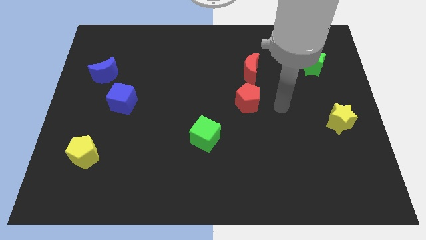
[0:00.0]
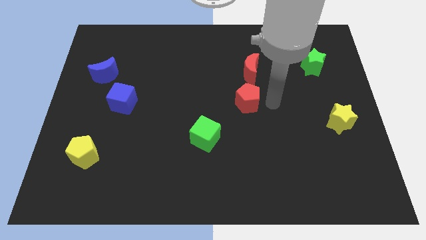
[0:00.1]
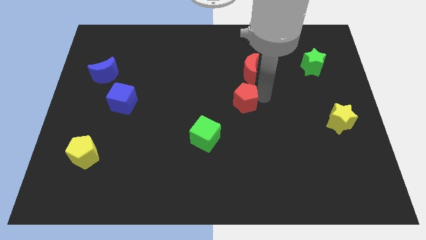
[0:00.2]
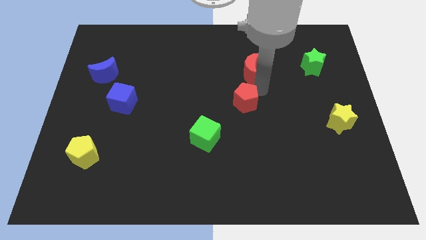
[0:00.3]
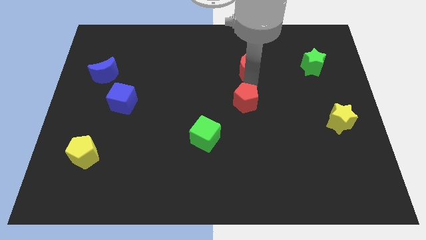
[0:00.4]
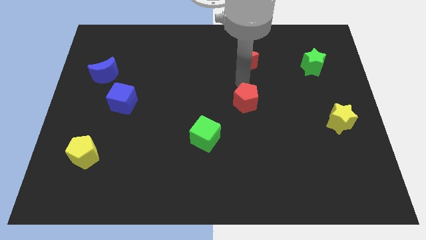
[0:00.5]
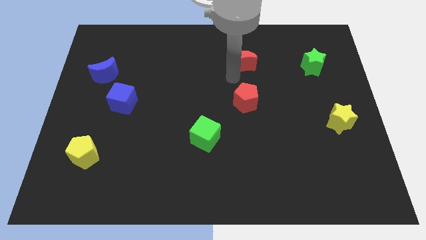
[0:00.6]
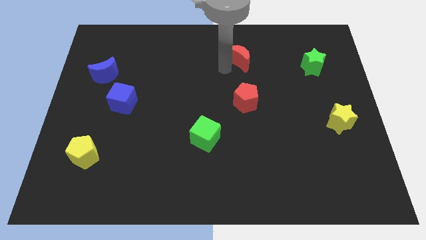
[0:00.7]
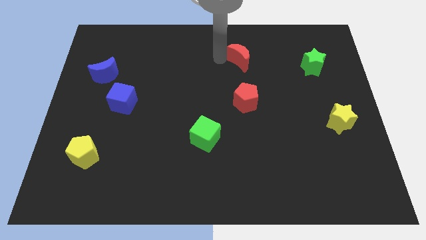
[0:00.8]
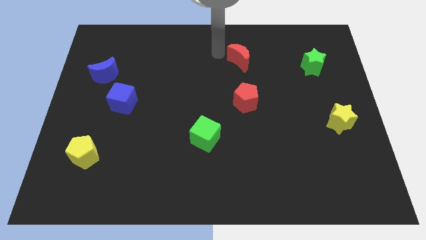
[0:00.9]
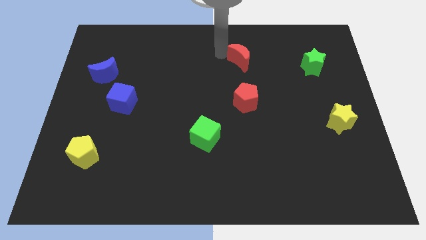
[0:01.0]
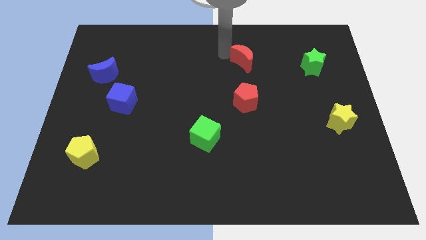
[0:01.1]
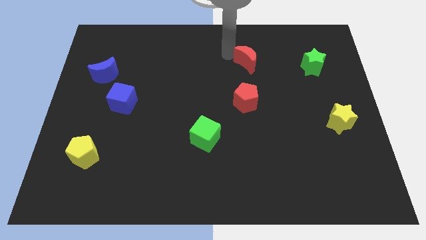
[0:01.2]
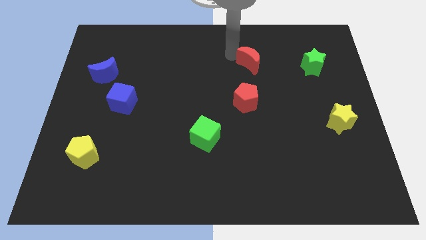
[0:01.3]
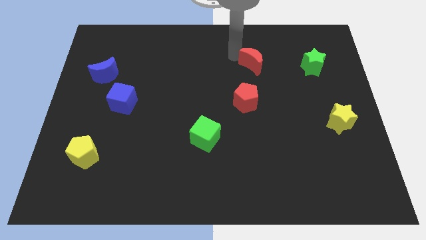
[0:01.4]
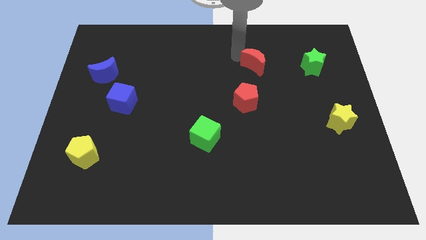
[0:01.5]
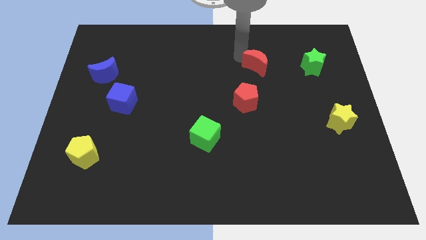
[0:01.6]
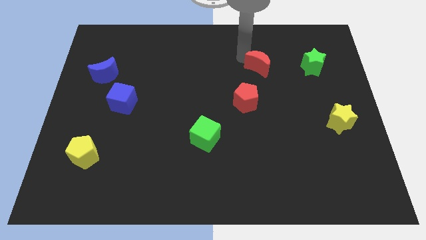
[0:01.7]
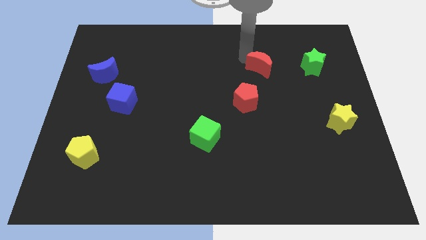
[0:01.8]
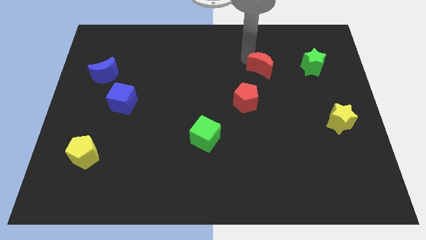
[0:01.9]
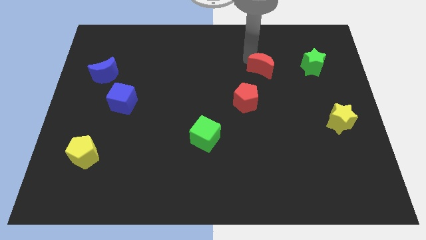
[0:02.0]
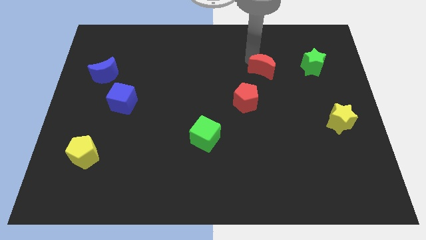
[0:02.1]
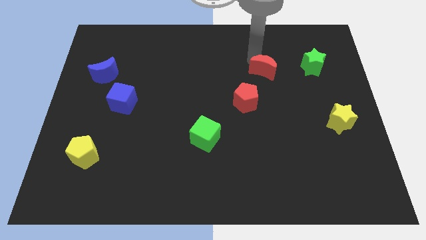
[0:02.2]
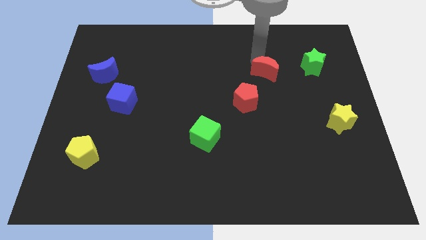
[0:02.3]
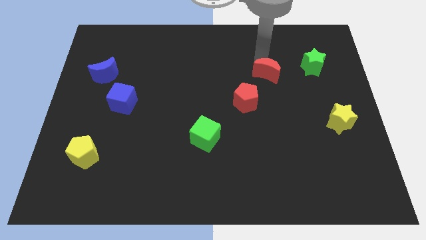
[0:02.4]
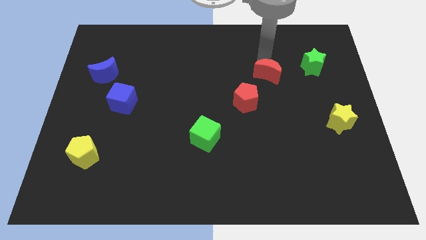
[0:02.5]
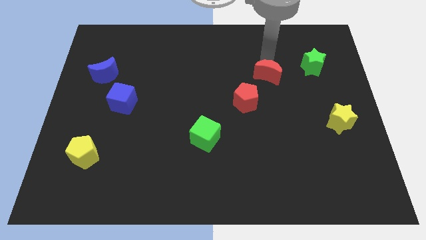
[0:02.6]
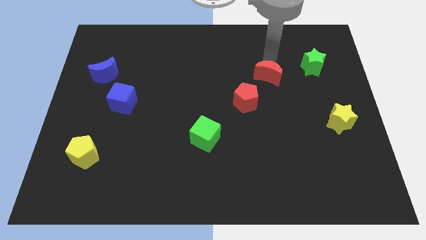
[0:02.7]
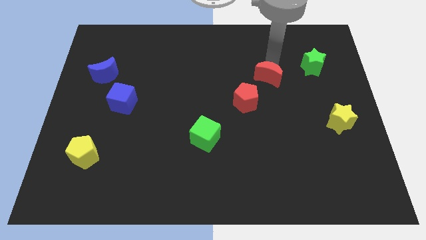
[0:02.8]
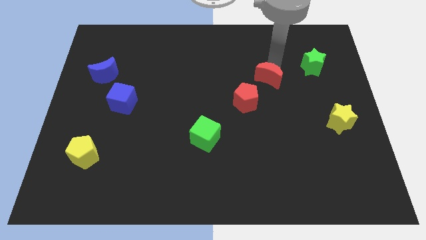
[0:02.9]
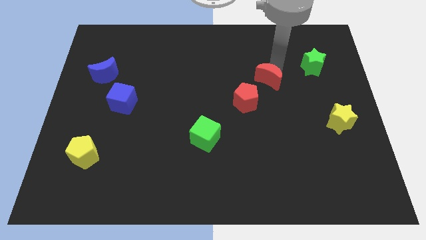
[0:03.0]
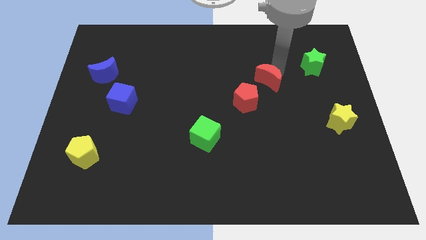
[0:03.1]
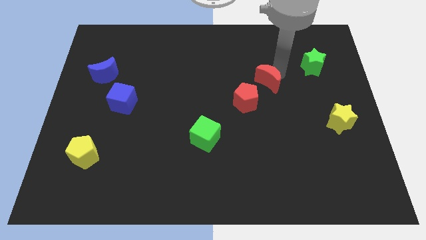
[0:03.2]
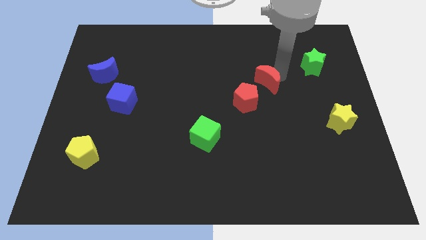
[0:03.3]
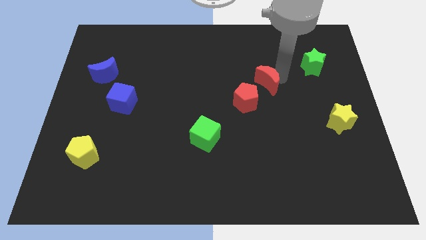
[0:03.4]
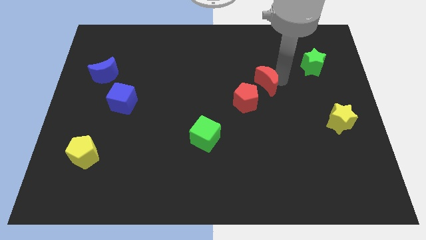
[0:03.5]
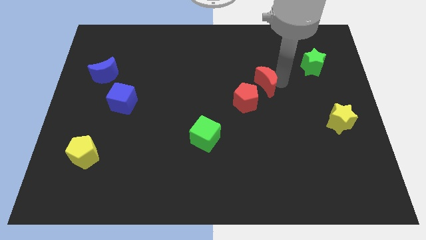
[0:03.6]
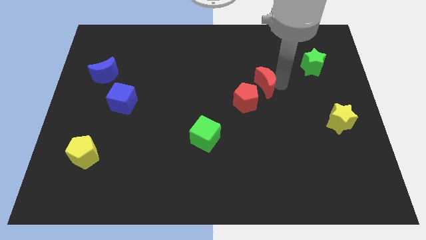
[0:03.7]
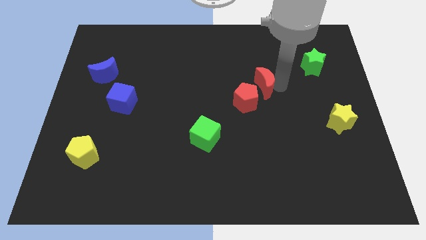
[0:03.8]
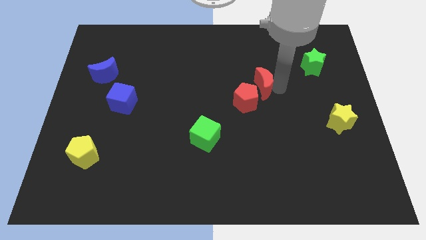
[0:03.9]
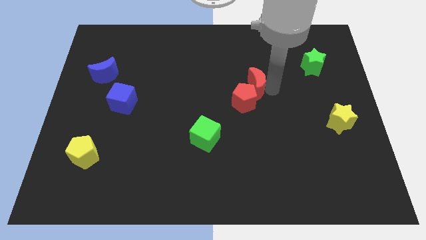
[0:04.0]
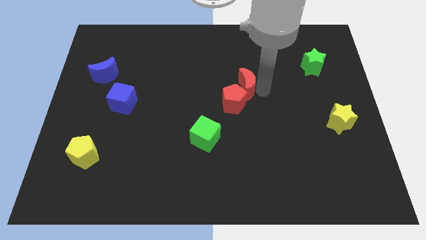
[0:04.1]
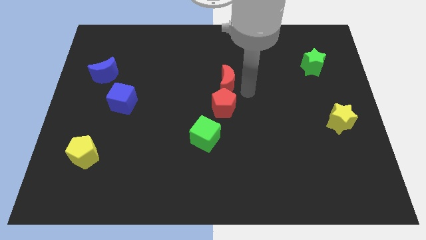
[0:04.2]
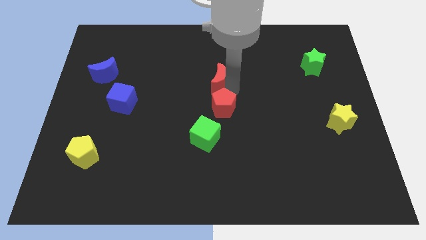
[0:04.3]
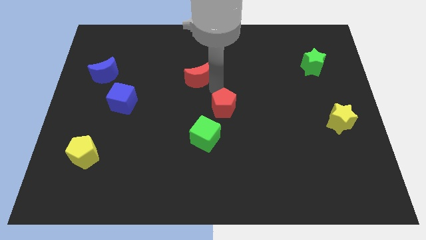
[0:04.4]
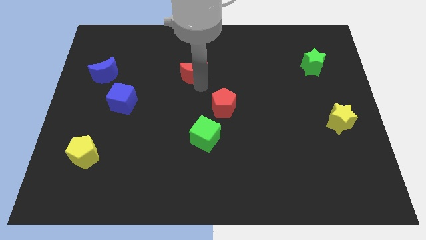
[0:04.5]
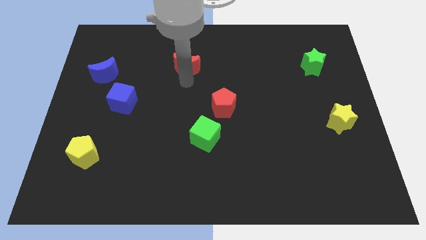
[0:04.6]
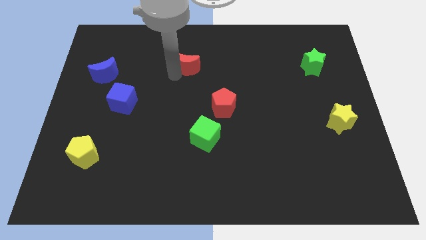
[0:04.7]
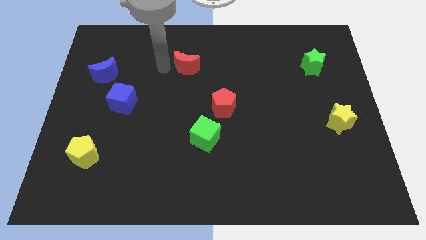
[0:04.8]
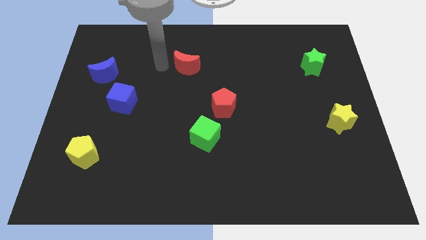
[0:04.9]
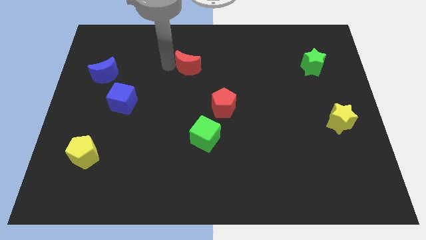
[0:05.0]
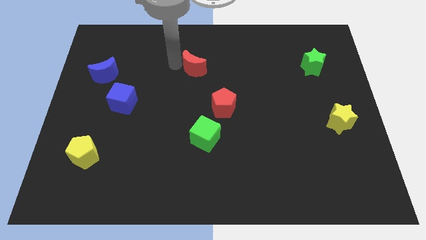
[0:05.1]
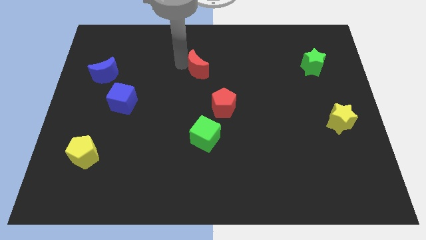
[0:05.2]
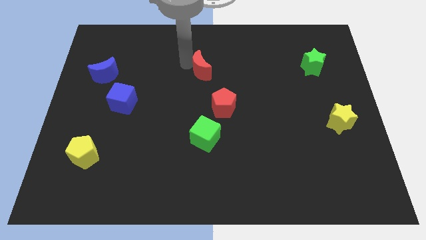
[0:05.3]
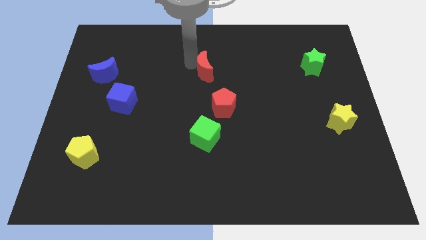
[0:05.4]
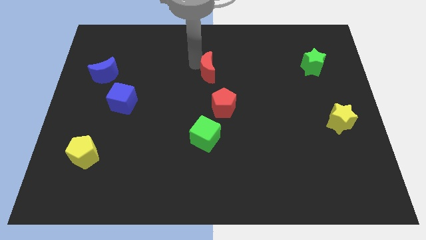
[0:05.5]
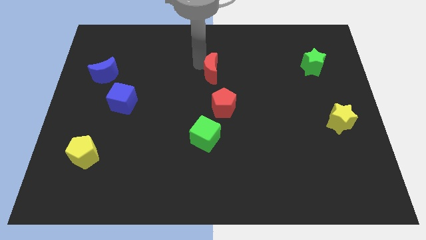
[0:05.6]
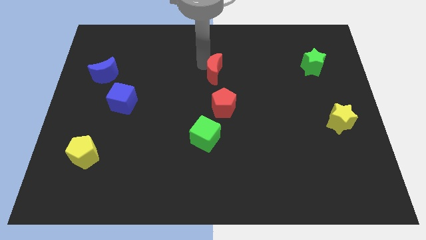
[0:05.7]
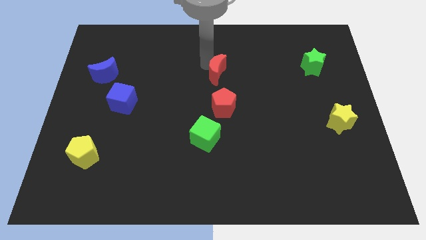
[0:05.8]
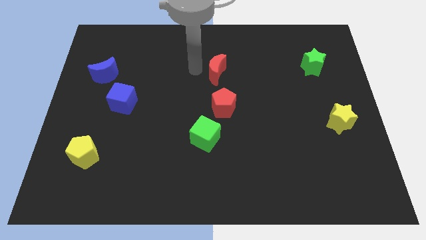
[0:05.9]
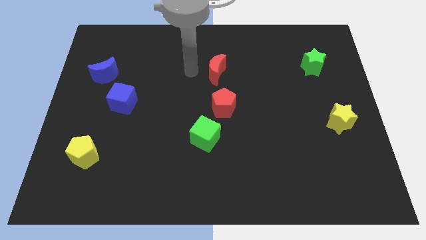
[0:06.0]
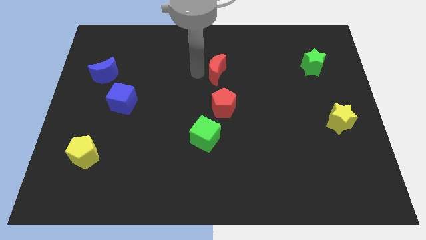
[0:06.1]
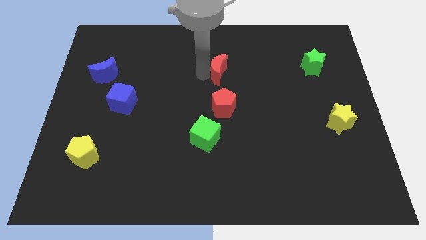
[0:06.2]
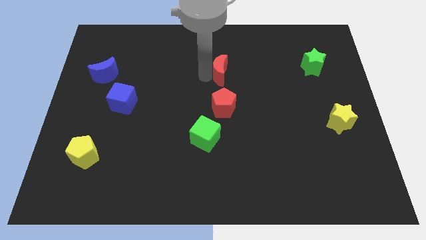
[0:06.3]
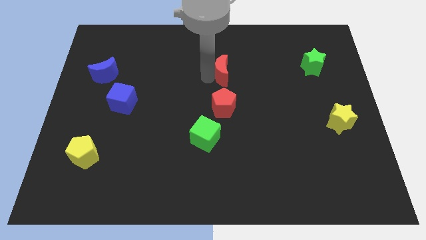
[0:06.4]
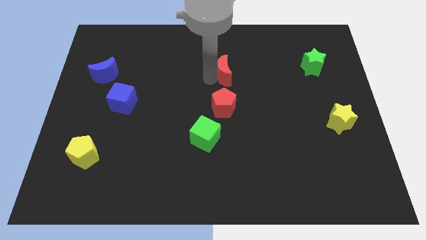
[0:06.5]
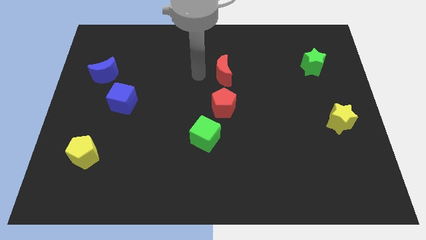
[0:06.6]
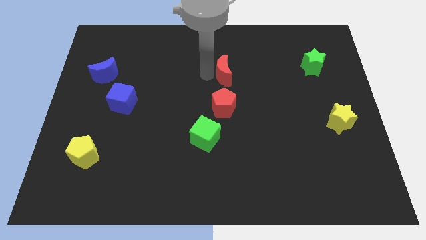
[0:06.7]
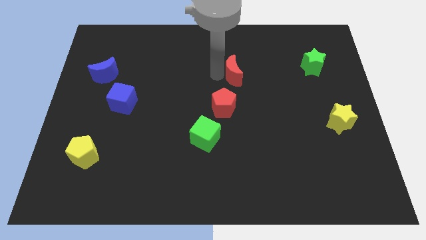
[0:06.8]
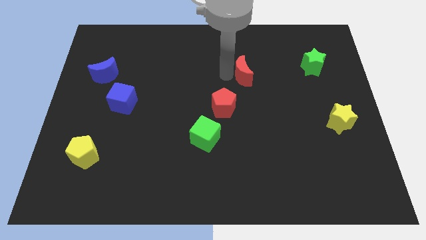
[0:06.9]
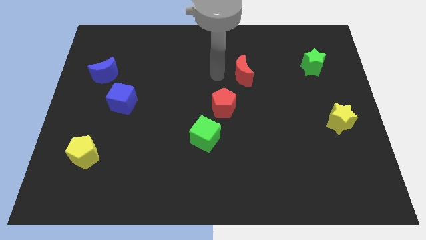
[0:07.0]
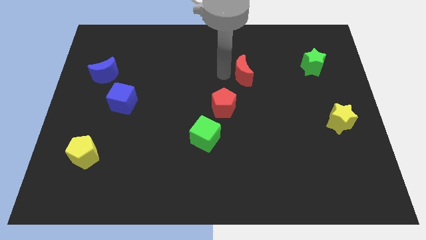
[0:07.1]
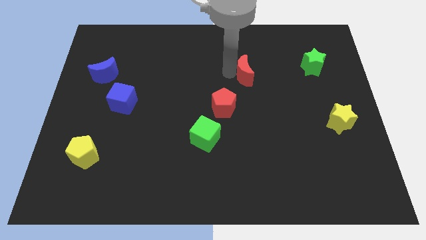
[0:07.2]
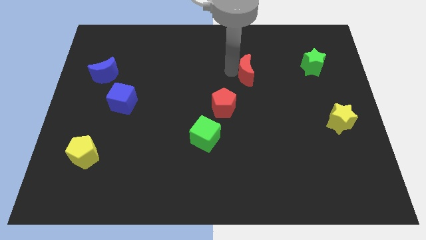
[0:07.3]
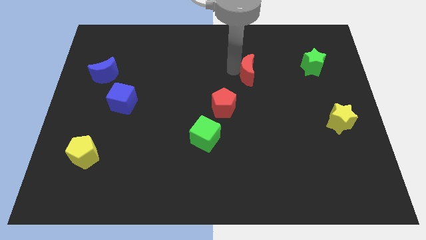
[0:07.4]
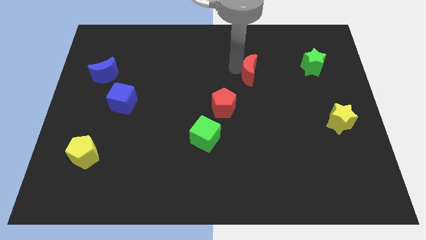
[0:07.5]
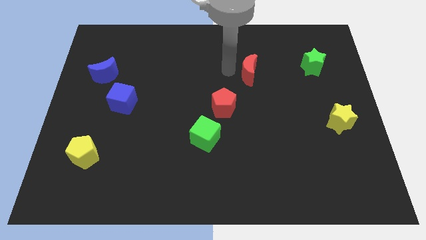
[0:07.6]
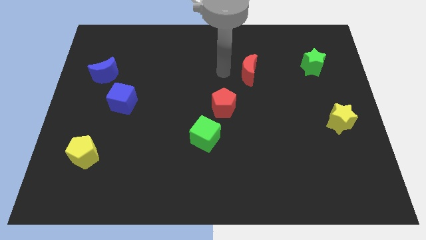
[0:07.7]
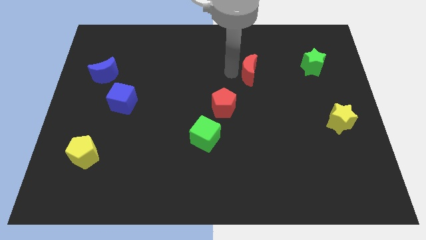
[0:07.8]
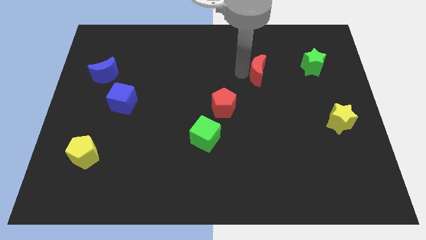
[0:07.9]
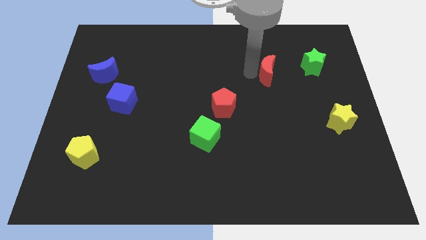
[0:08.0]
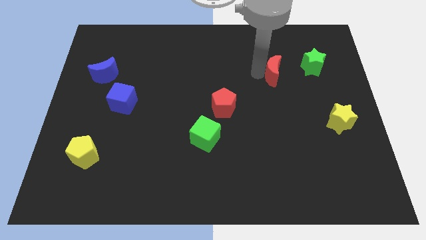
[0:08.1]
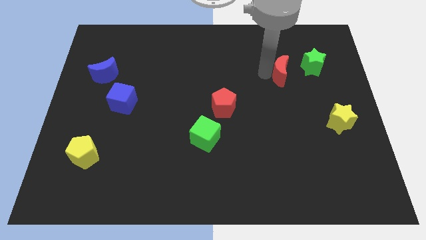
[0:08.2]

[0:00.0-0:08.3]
slide the red moon slightly right
